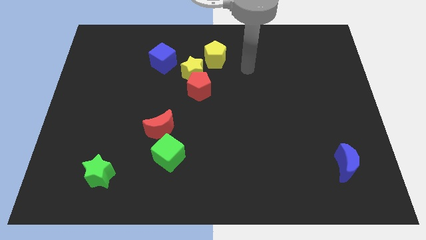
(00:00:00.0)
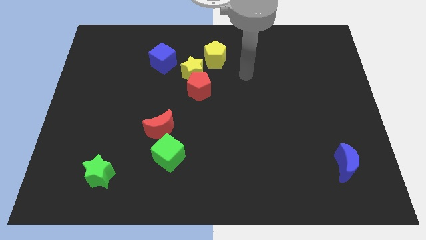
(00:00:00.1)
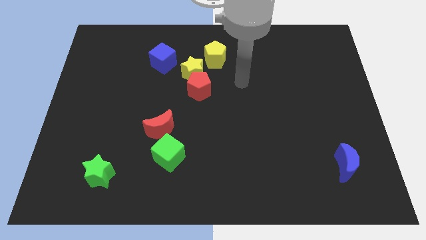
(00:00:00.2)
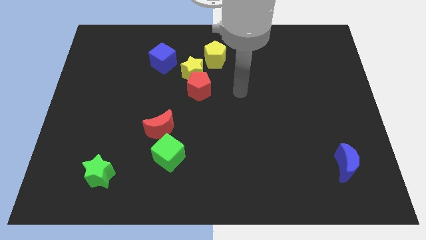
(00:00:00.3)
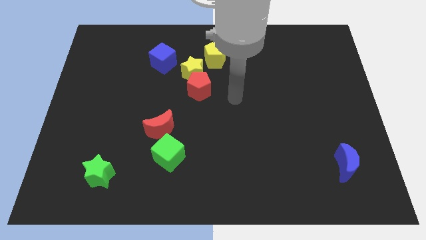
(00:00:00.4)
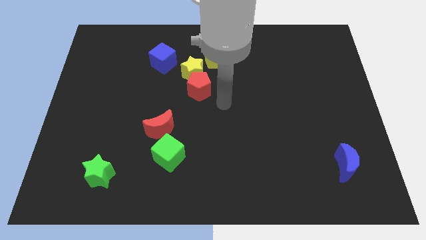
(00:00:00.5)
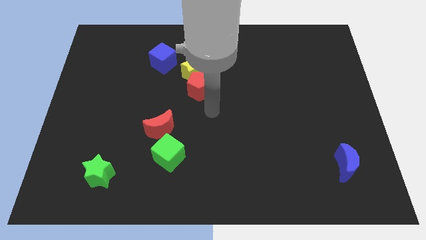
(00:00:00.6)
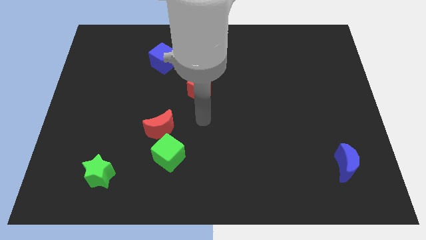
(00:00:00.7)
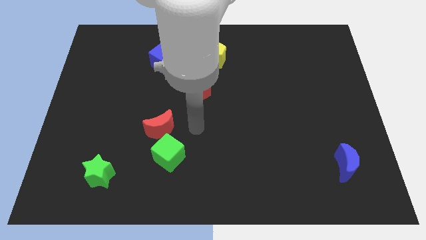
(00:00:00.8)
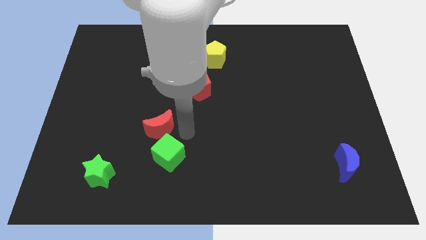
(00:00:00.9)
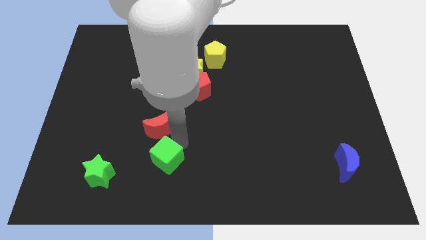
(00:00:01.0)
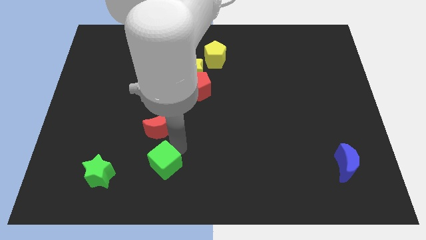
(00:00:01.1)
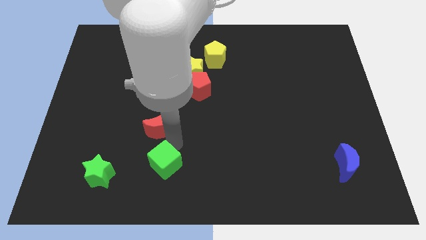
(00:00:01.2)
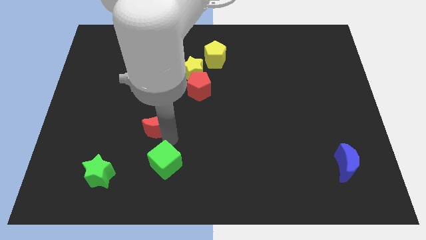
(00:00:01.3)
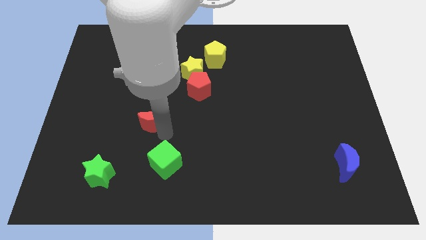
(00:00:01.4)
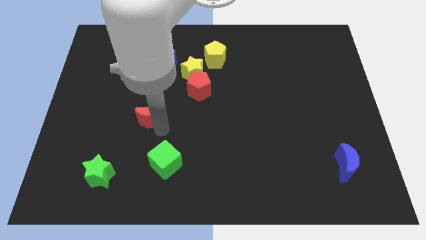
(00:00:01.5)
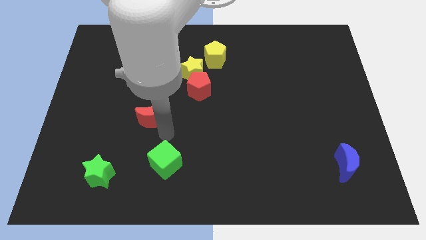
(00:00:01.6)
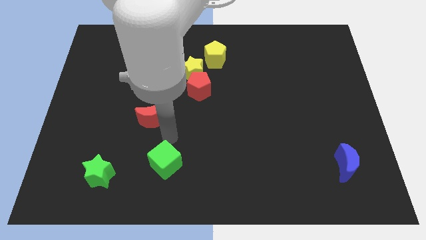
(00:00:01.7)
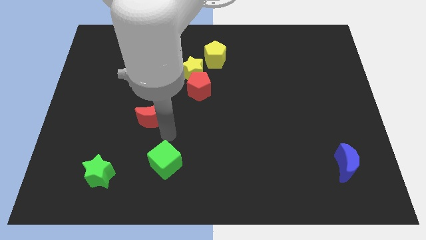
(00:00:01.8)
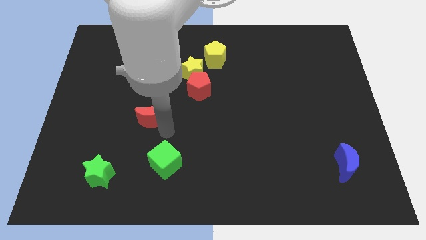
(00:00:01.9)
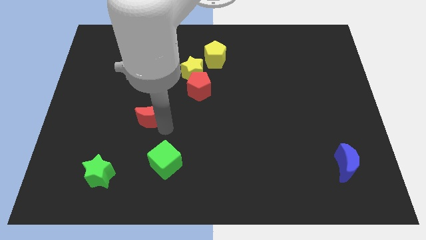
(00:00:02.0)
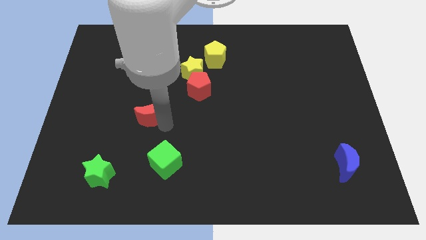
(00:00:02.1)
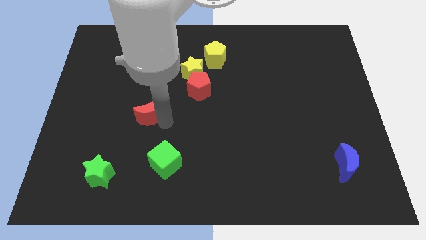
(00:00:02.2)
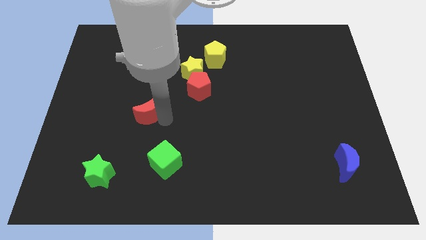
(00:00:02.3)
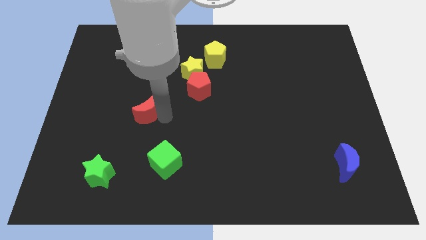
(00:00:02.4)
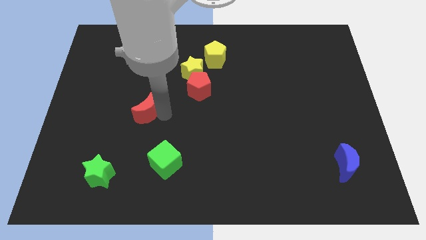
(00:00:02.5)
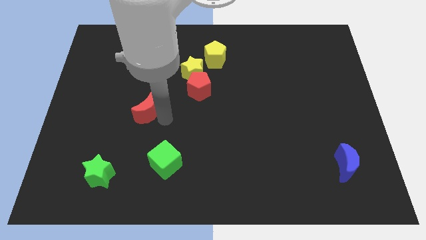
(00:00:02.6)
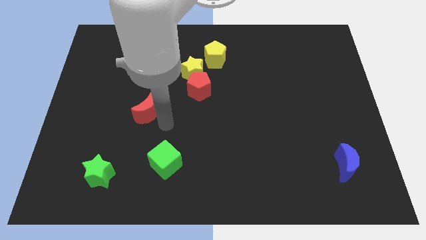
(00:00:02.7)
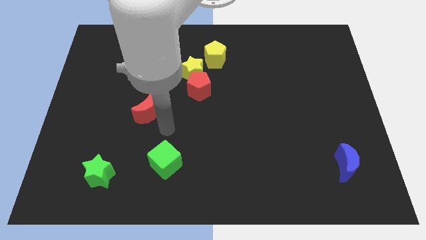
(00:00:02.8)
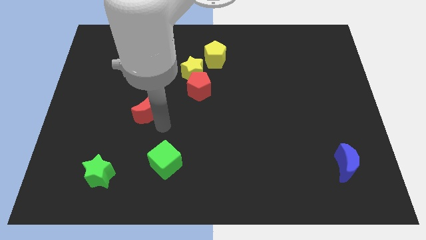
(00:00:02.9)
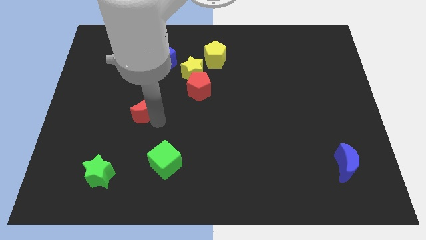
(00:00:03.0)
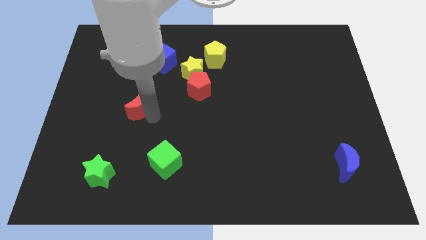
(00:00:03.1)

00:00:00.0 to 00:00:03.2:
slightly move the red moon upwards and to the left diagonally

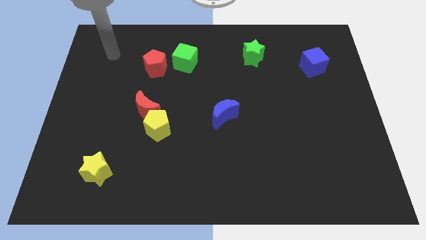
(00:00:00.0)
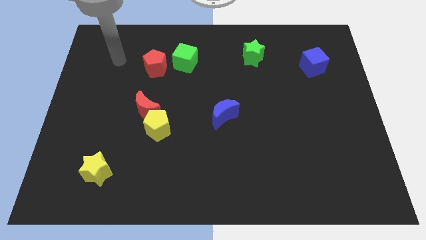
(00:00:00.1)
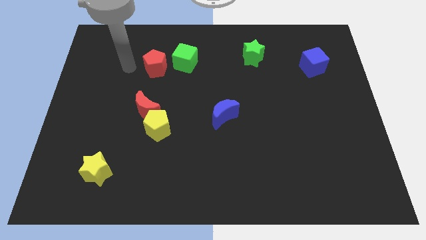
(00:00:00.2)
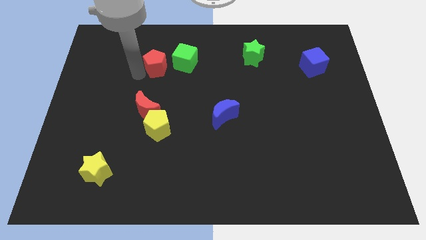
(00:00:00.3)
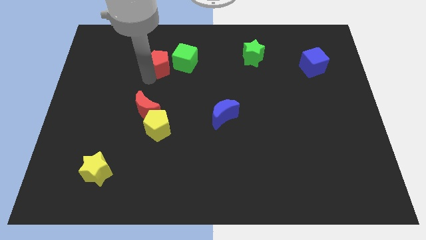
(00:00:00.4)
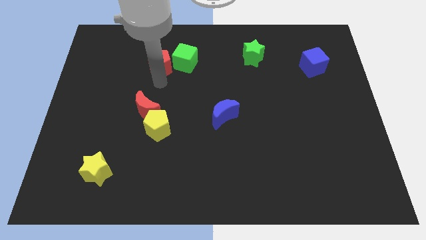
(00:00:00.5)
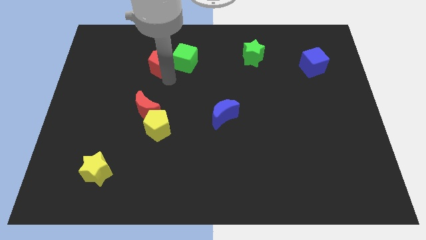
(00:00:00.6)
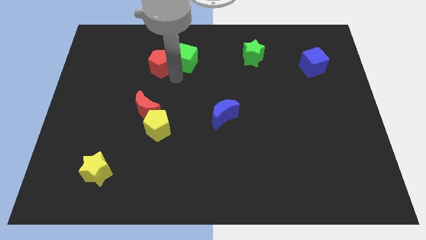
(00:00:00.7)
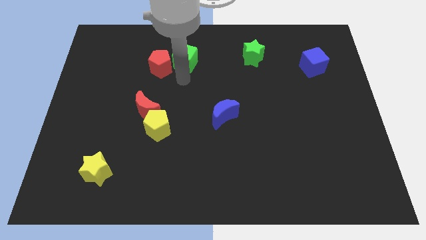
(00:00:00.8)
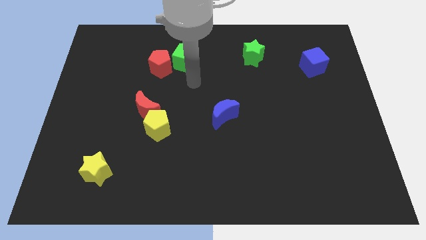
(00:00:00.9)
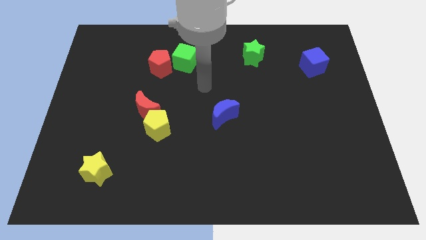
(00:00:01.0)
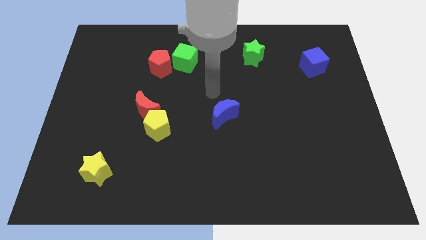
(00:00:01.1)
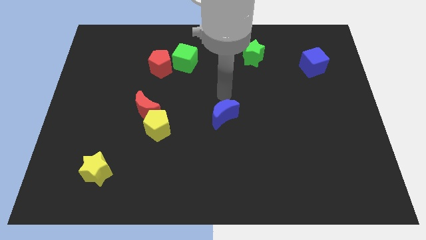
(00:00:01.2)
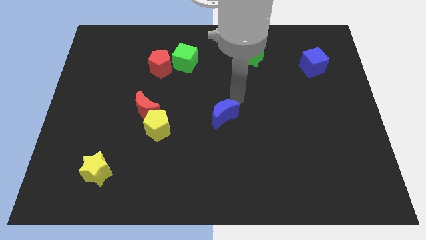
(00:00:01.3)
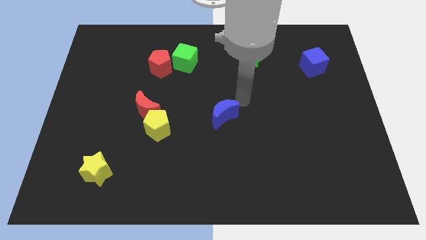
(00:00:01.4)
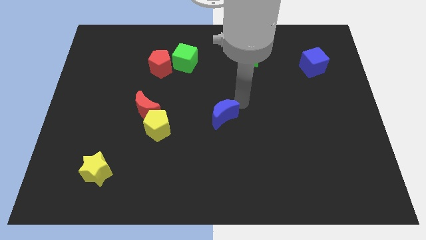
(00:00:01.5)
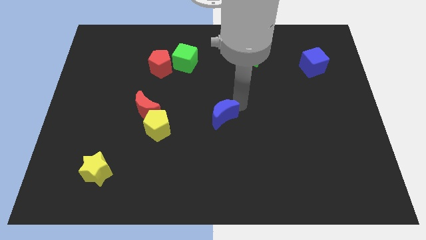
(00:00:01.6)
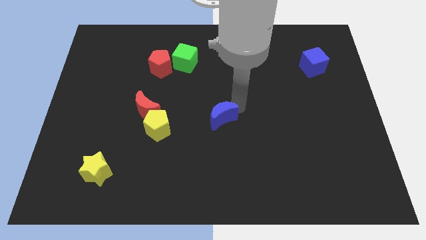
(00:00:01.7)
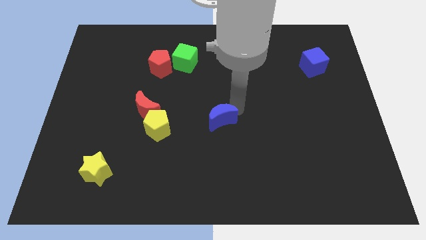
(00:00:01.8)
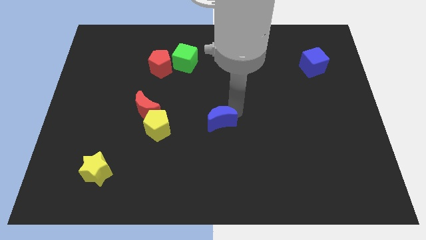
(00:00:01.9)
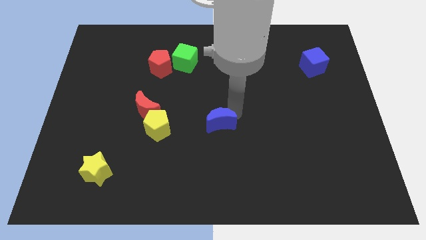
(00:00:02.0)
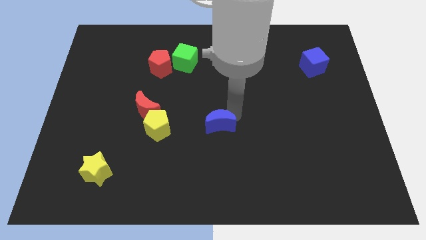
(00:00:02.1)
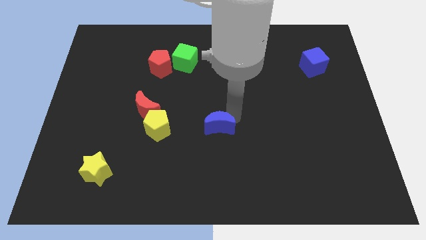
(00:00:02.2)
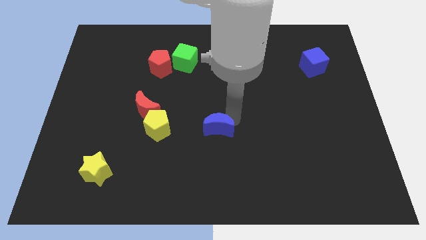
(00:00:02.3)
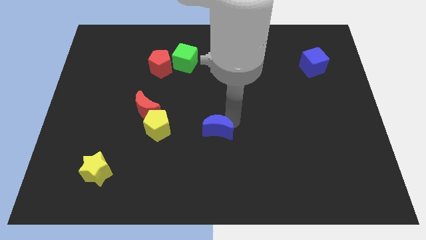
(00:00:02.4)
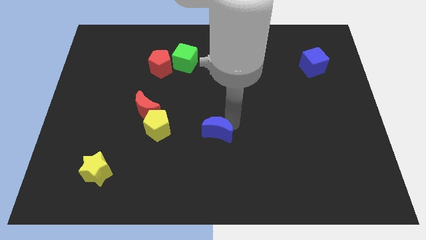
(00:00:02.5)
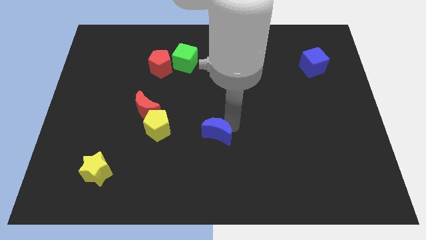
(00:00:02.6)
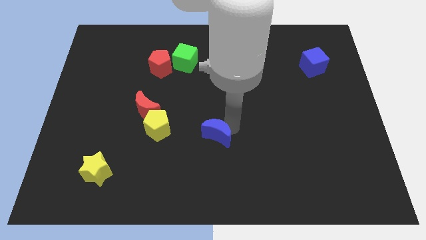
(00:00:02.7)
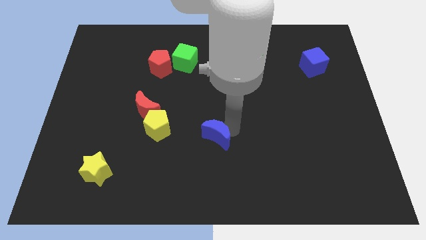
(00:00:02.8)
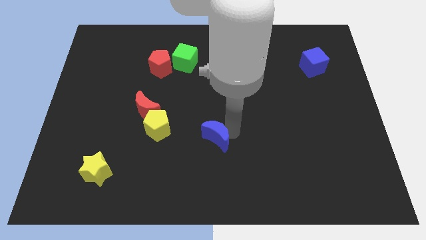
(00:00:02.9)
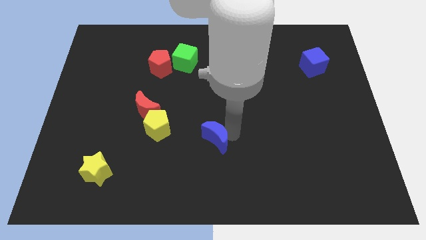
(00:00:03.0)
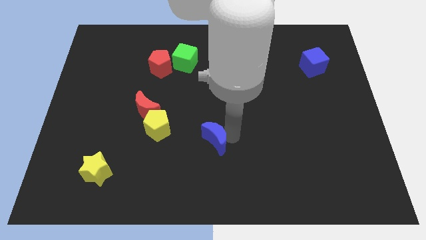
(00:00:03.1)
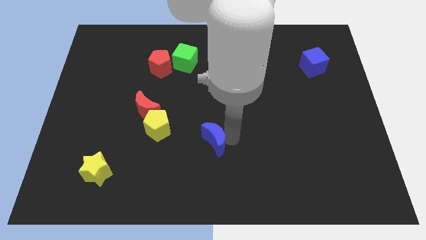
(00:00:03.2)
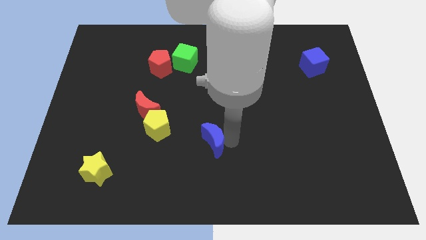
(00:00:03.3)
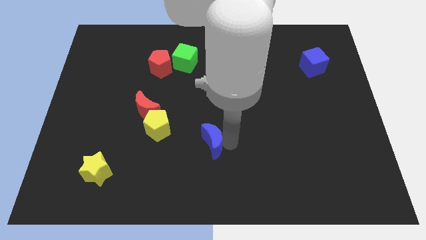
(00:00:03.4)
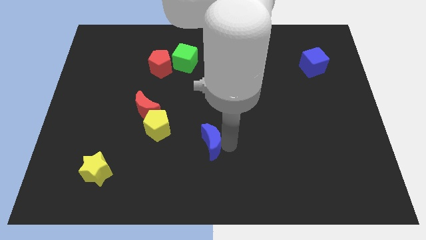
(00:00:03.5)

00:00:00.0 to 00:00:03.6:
slide the blue moon slightly downwards and left diagonally

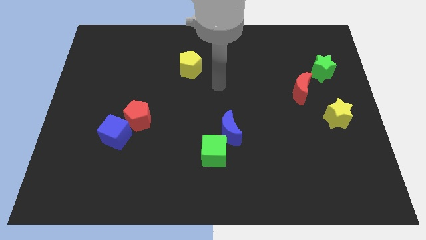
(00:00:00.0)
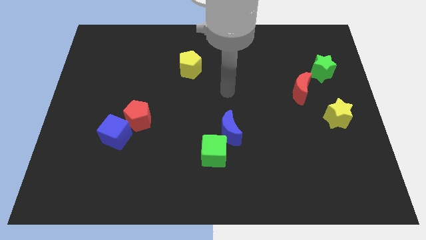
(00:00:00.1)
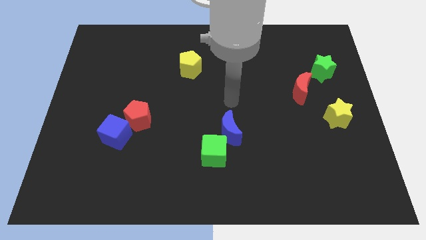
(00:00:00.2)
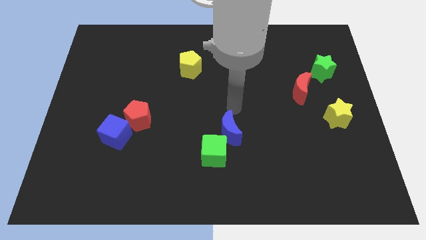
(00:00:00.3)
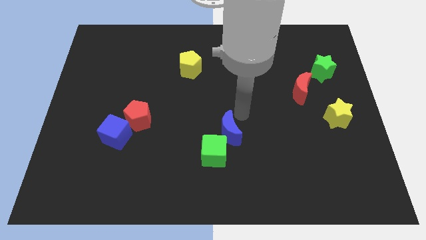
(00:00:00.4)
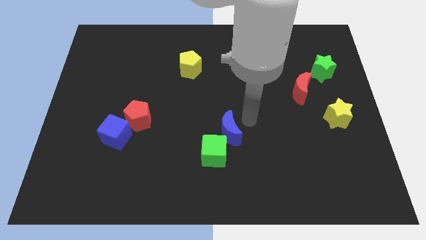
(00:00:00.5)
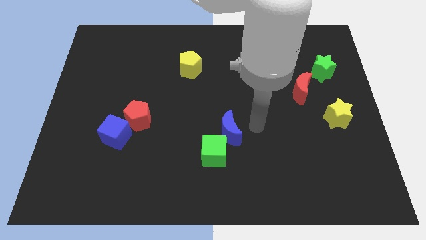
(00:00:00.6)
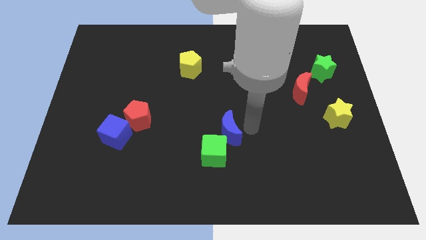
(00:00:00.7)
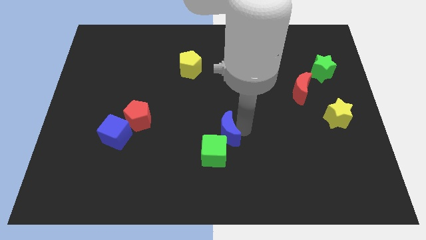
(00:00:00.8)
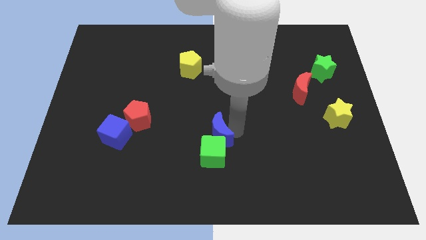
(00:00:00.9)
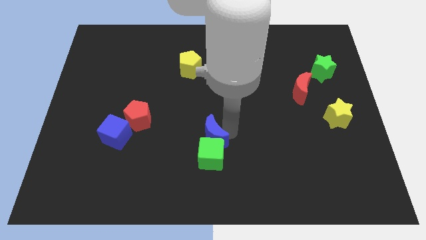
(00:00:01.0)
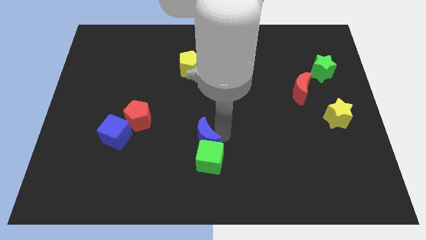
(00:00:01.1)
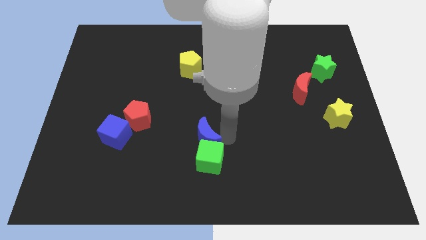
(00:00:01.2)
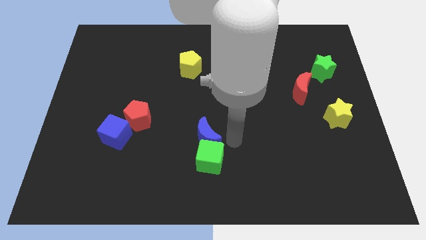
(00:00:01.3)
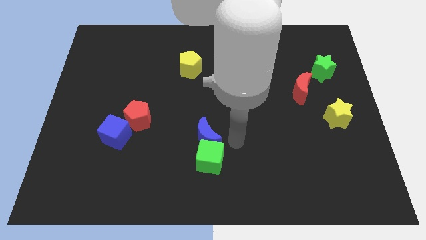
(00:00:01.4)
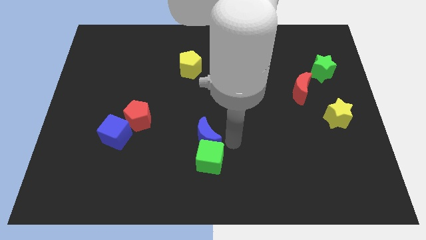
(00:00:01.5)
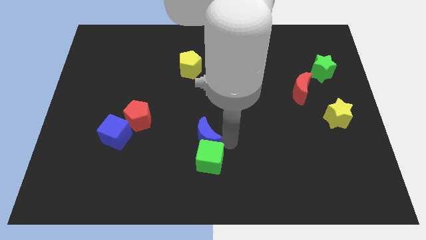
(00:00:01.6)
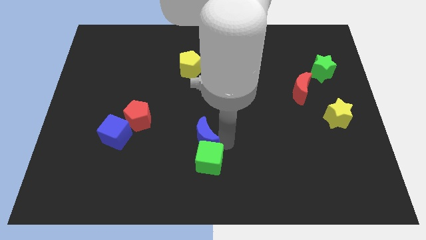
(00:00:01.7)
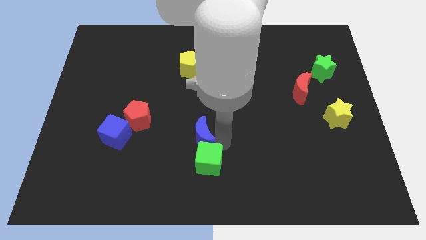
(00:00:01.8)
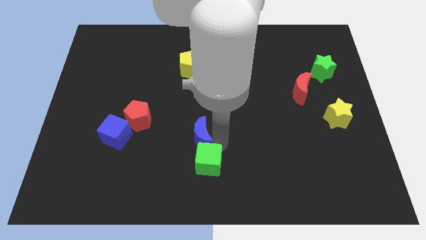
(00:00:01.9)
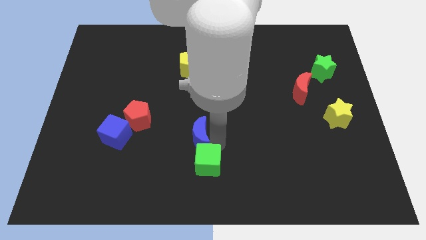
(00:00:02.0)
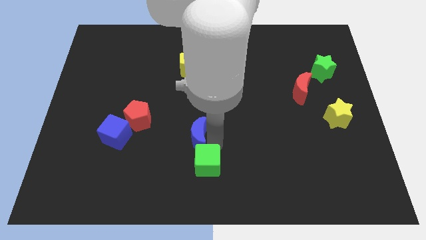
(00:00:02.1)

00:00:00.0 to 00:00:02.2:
move the blue moon a bit to the left
